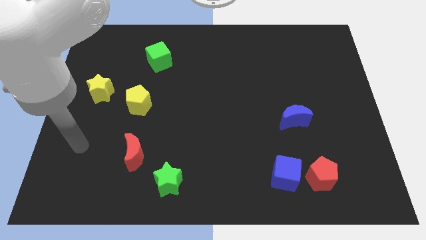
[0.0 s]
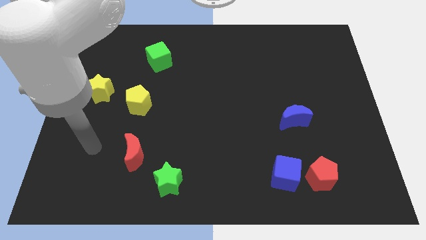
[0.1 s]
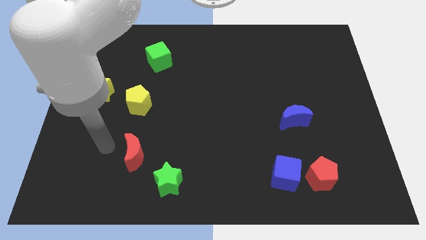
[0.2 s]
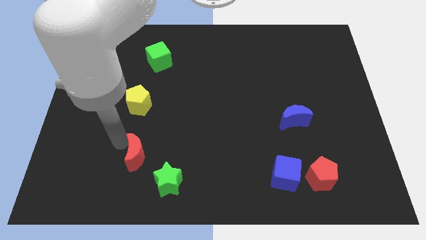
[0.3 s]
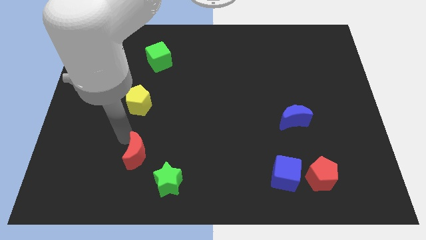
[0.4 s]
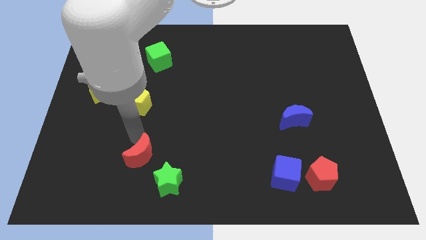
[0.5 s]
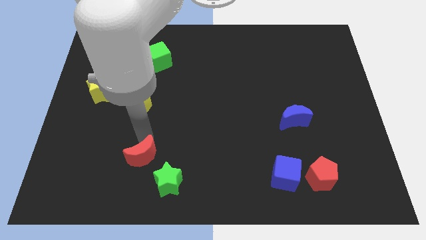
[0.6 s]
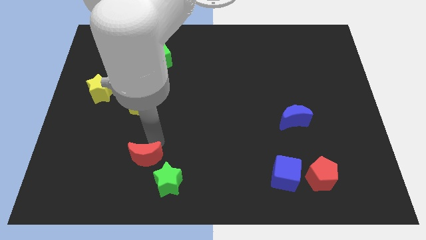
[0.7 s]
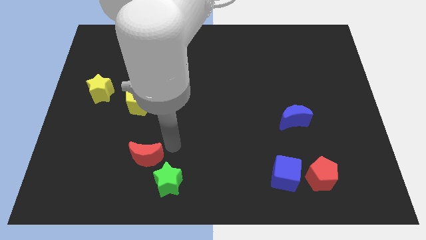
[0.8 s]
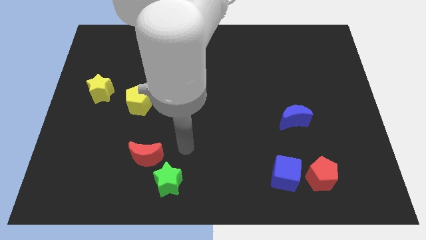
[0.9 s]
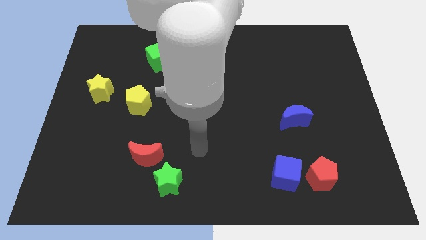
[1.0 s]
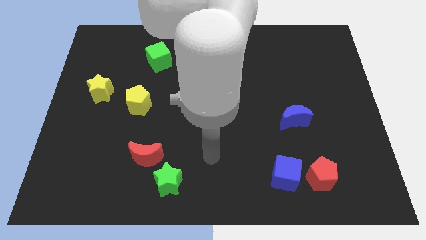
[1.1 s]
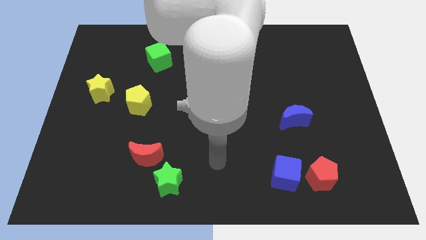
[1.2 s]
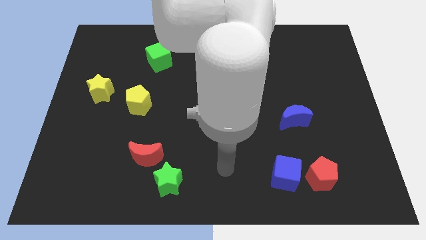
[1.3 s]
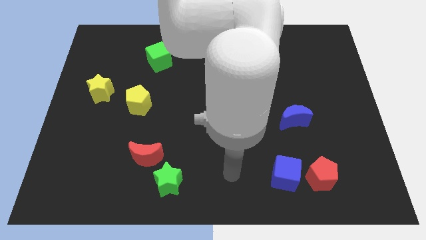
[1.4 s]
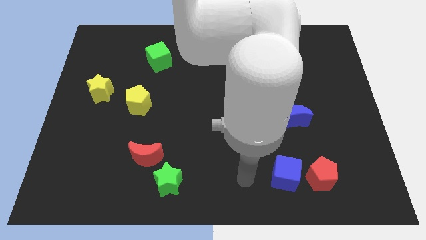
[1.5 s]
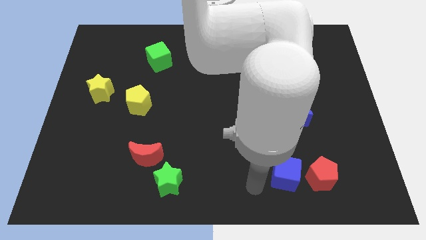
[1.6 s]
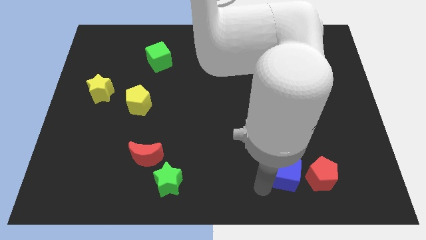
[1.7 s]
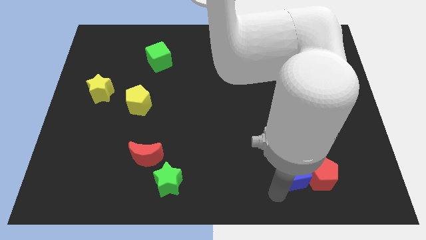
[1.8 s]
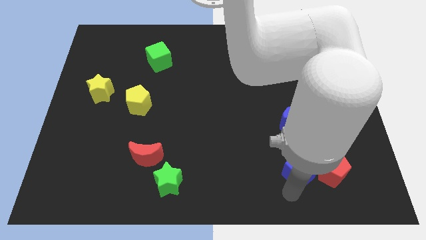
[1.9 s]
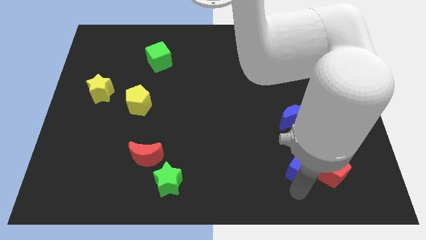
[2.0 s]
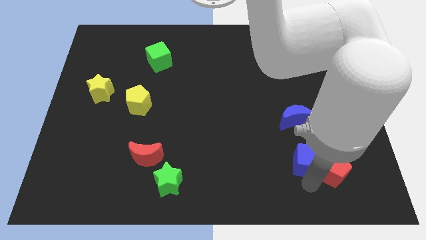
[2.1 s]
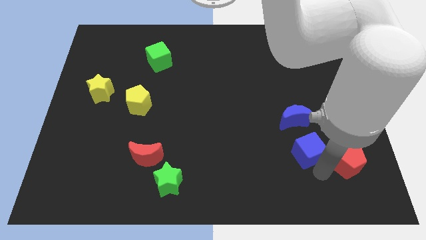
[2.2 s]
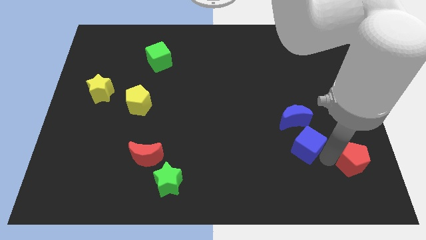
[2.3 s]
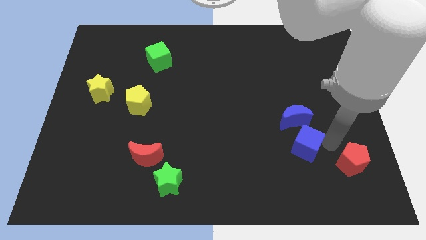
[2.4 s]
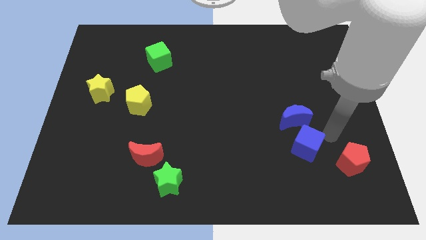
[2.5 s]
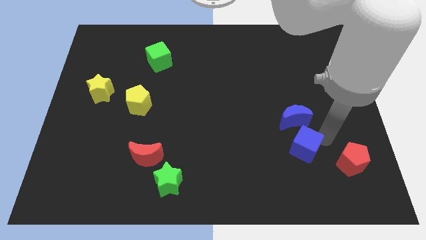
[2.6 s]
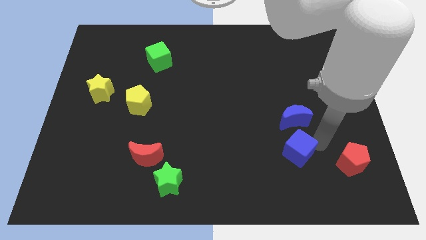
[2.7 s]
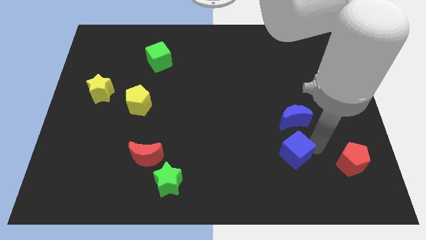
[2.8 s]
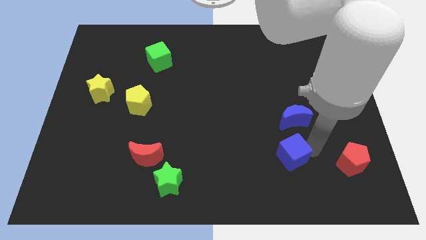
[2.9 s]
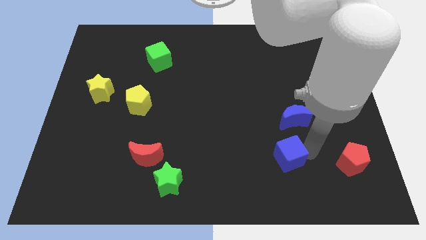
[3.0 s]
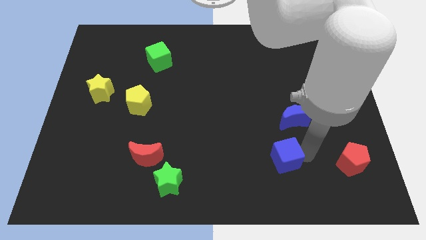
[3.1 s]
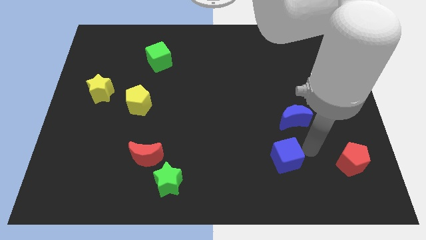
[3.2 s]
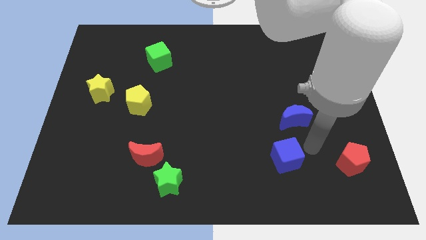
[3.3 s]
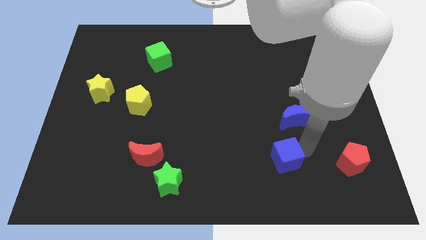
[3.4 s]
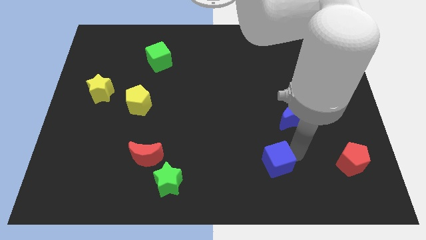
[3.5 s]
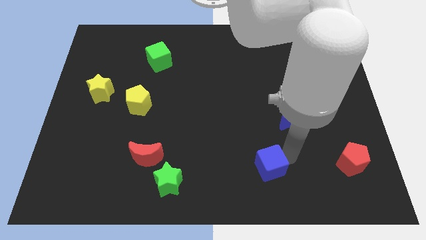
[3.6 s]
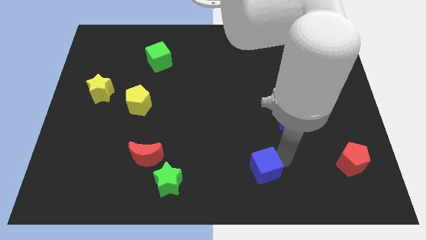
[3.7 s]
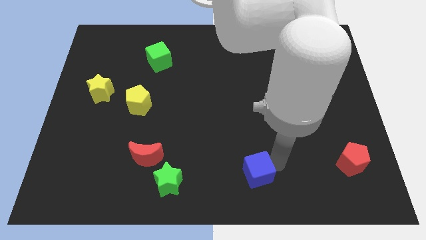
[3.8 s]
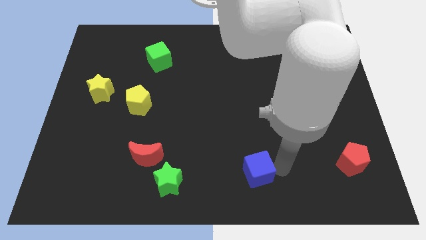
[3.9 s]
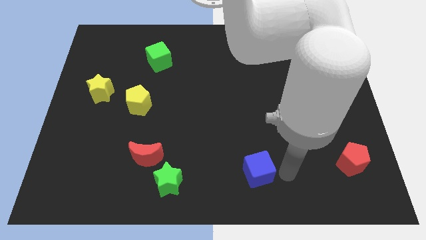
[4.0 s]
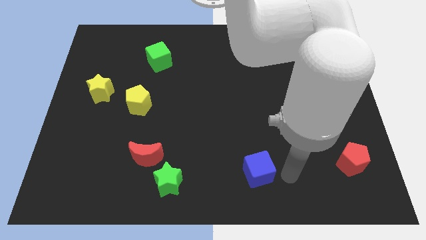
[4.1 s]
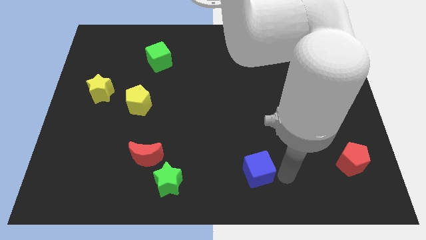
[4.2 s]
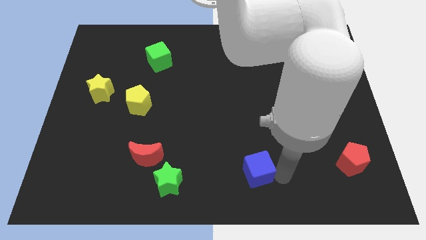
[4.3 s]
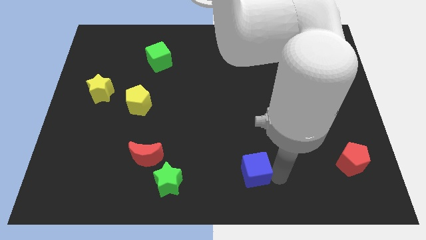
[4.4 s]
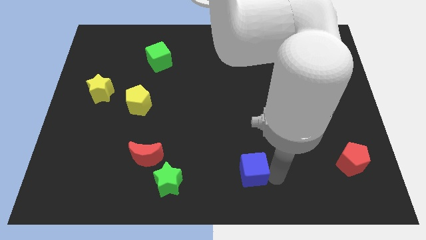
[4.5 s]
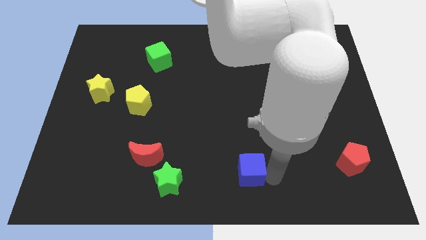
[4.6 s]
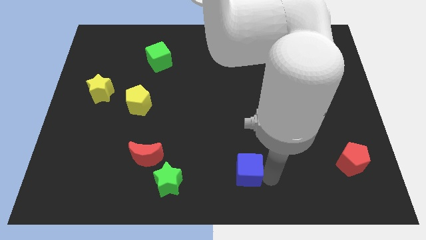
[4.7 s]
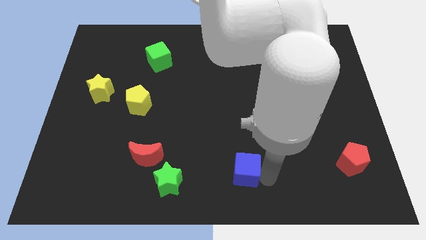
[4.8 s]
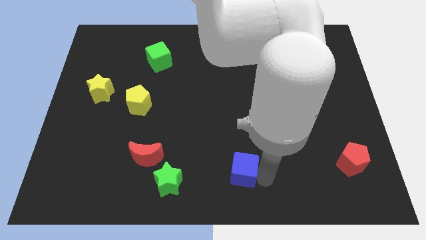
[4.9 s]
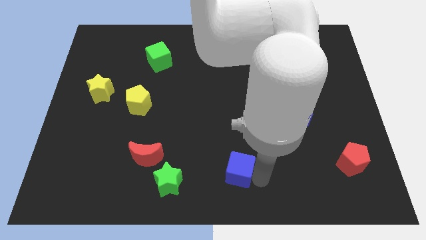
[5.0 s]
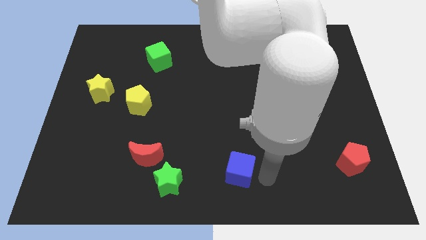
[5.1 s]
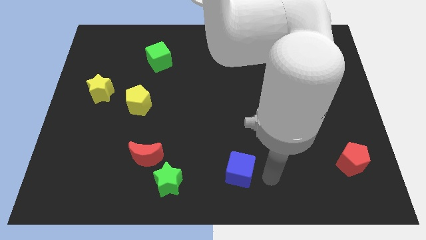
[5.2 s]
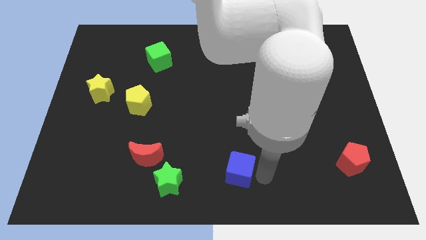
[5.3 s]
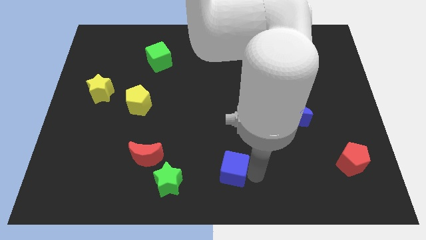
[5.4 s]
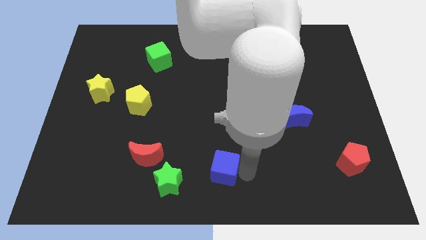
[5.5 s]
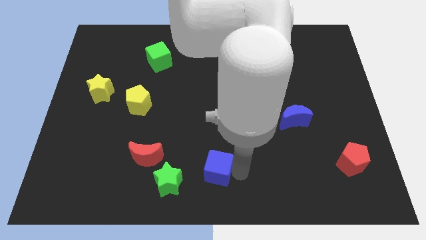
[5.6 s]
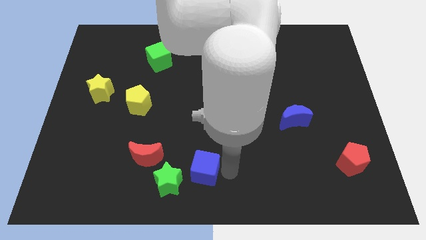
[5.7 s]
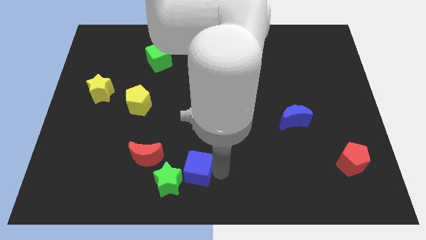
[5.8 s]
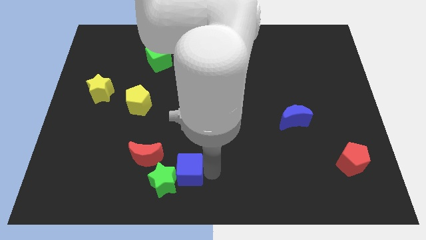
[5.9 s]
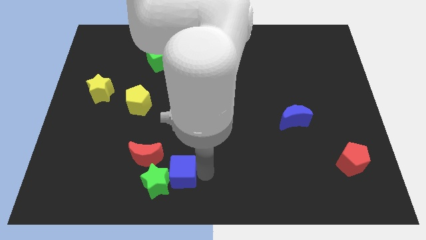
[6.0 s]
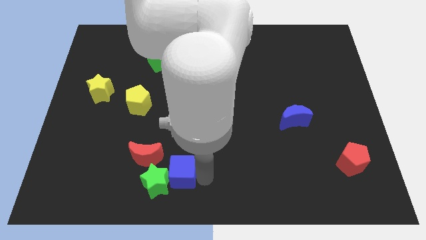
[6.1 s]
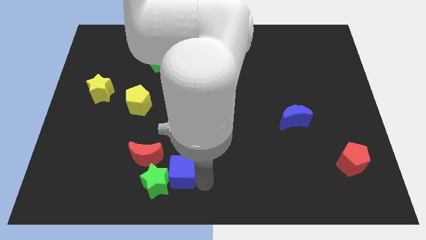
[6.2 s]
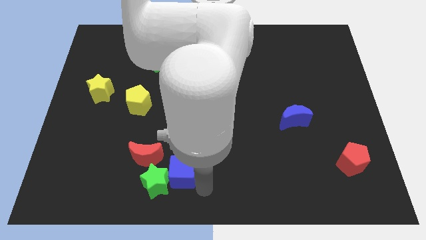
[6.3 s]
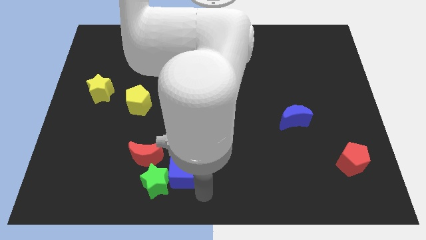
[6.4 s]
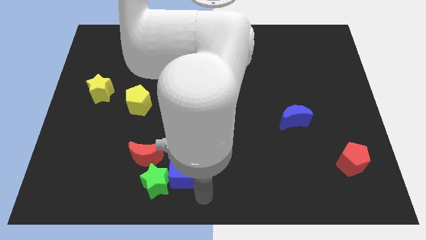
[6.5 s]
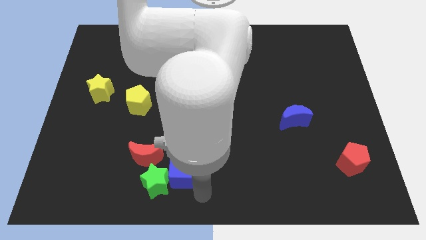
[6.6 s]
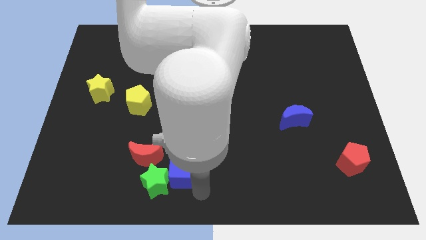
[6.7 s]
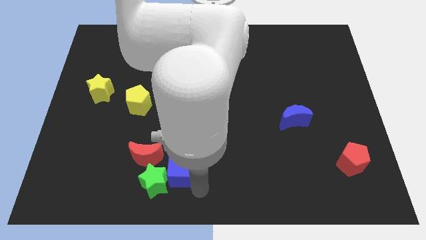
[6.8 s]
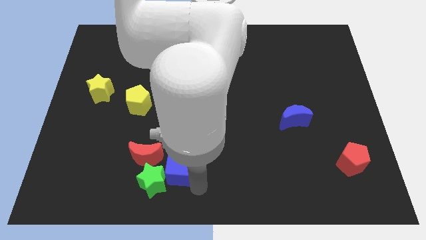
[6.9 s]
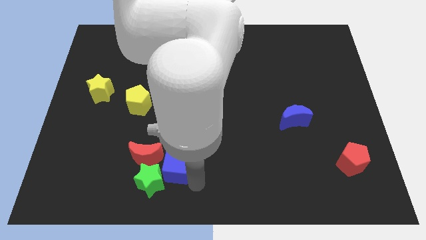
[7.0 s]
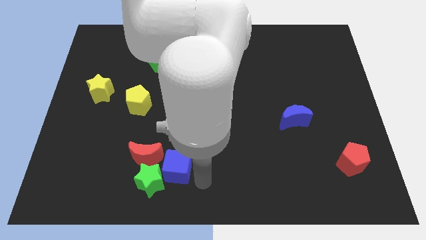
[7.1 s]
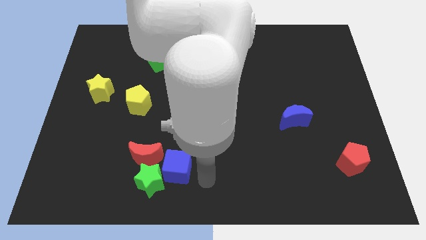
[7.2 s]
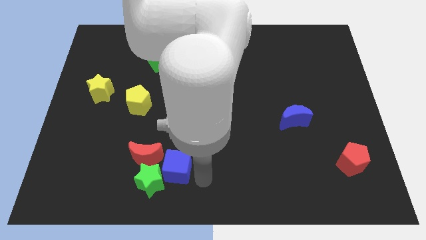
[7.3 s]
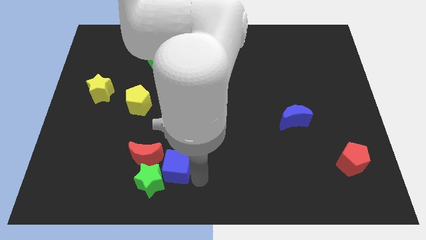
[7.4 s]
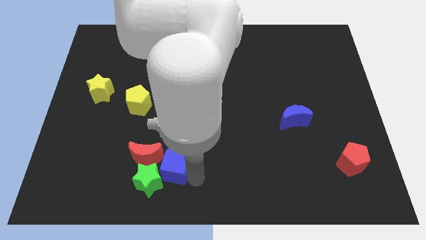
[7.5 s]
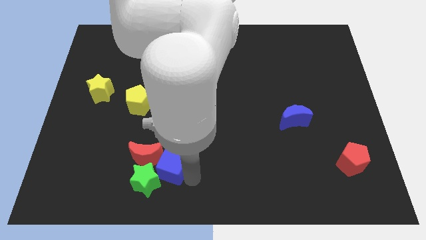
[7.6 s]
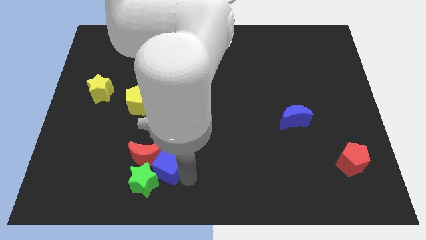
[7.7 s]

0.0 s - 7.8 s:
push the blue cube towards the red moon
